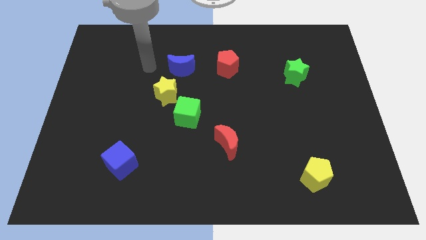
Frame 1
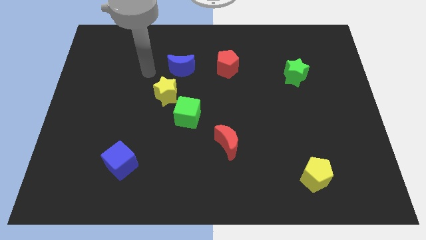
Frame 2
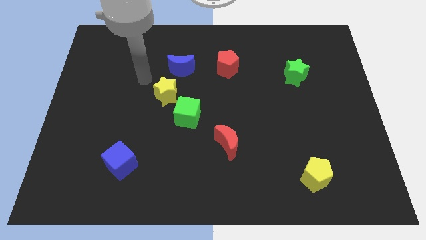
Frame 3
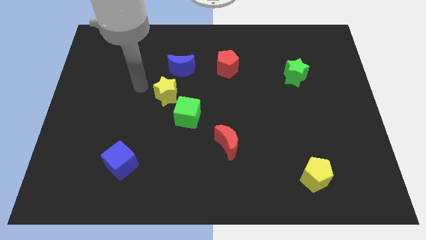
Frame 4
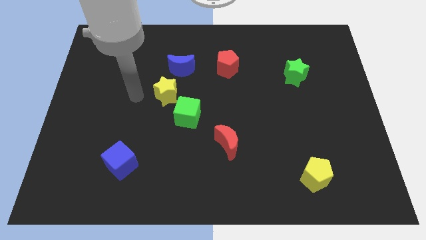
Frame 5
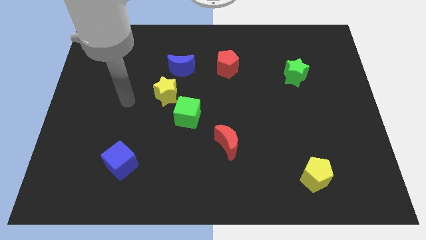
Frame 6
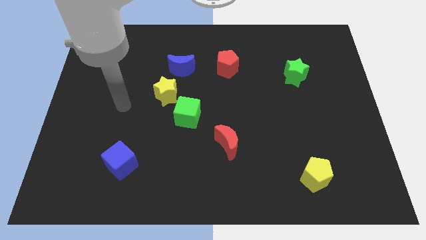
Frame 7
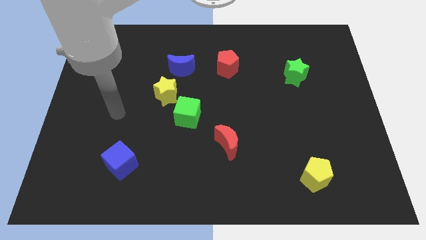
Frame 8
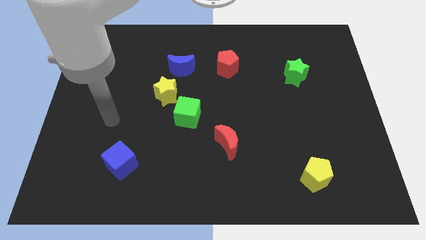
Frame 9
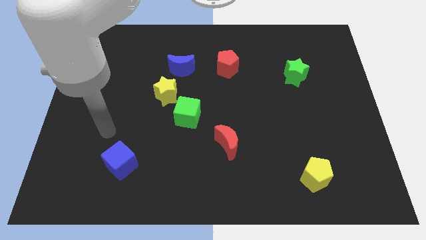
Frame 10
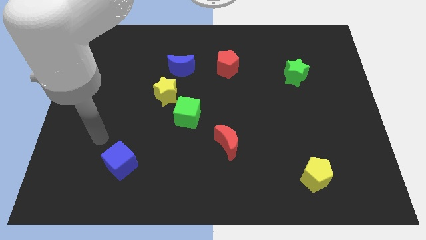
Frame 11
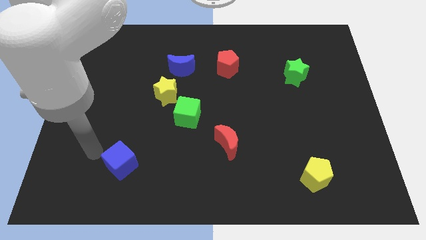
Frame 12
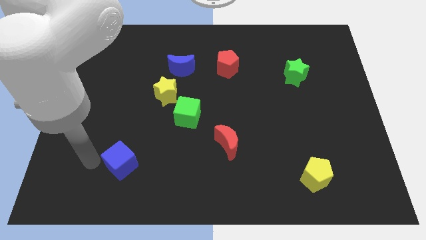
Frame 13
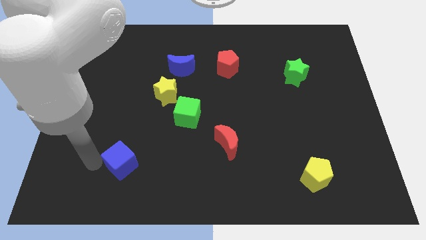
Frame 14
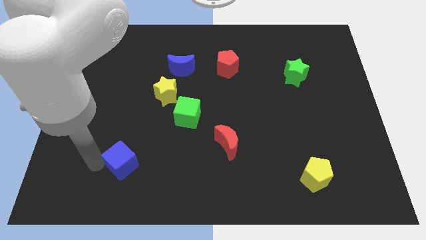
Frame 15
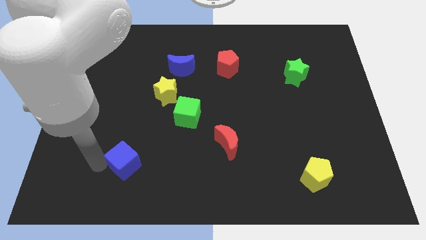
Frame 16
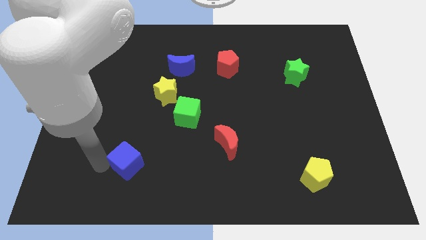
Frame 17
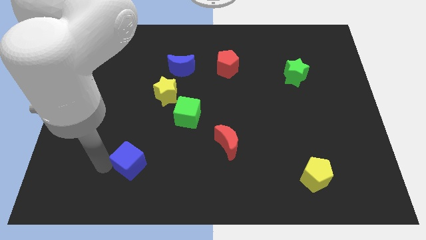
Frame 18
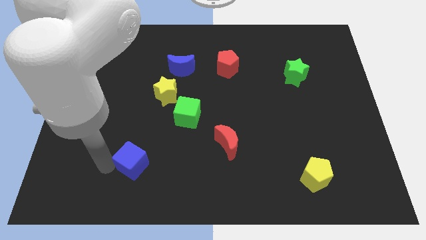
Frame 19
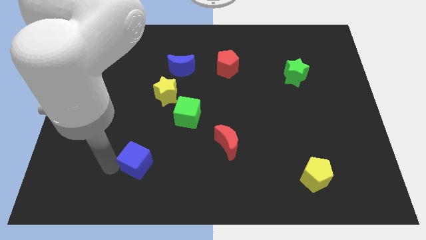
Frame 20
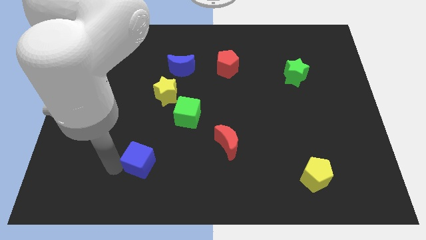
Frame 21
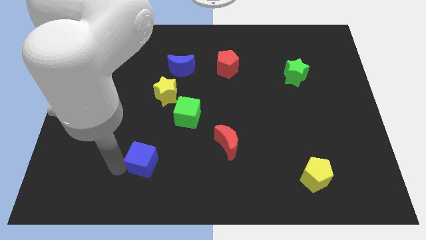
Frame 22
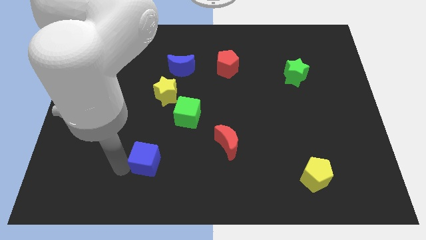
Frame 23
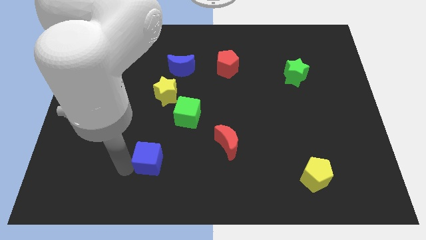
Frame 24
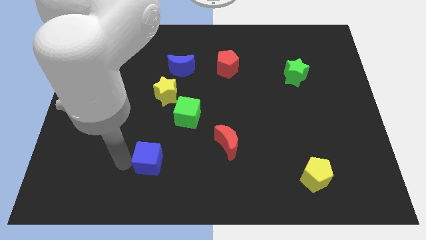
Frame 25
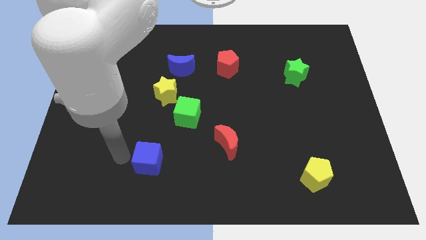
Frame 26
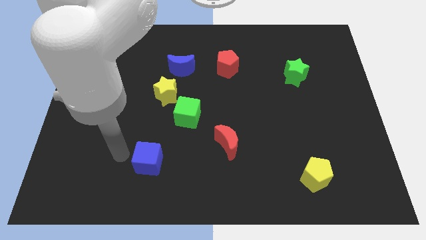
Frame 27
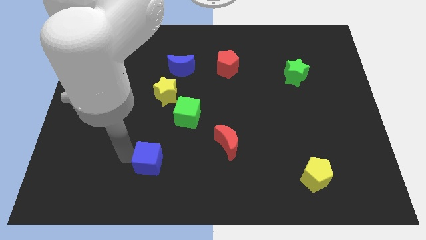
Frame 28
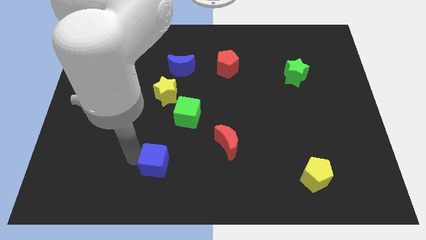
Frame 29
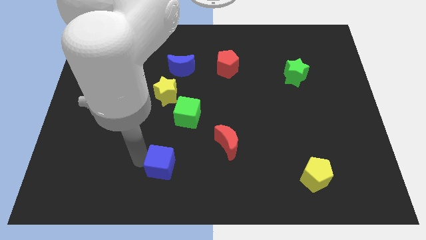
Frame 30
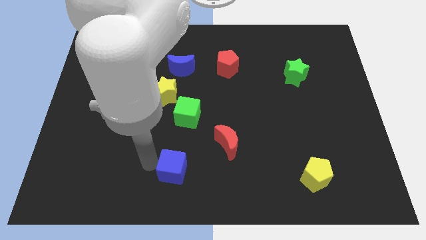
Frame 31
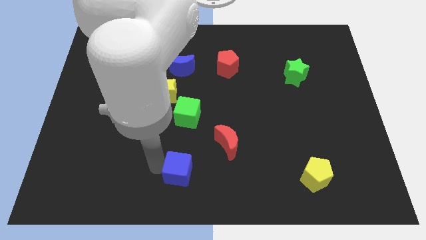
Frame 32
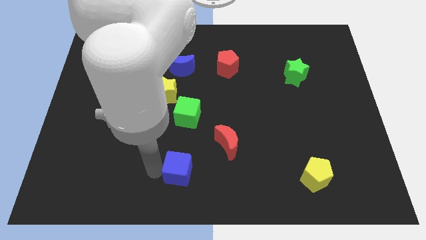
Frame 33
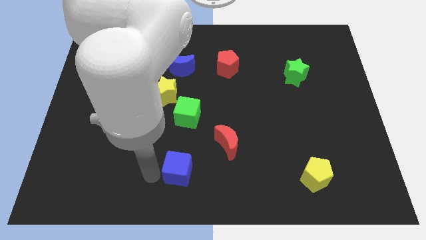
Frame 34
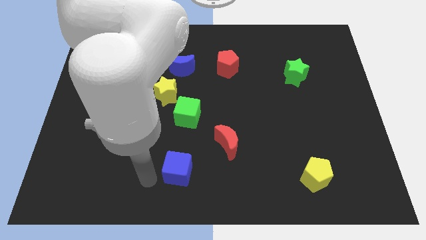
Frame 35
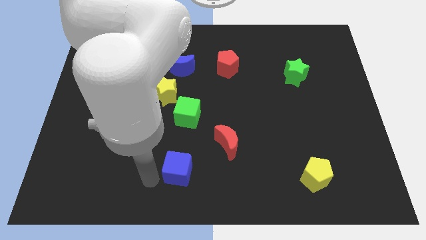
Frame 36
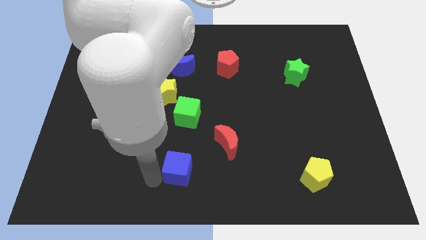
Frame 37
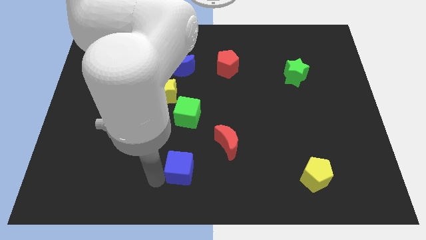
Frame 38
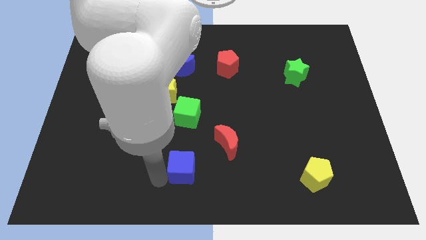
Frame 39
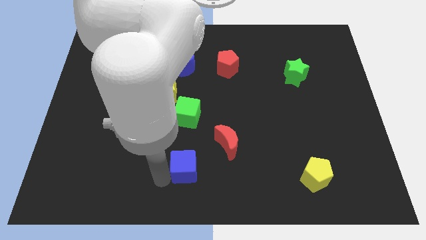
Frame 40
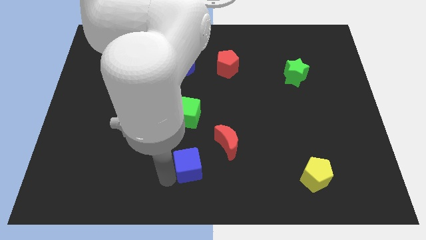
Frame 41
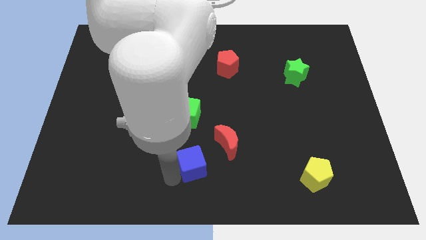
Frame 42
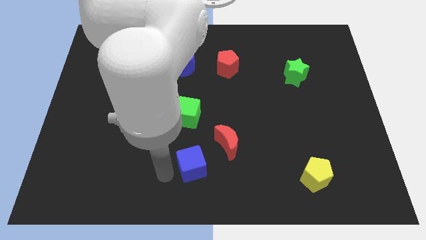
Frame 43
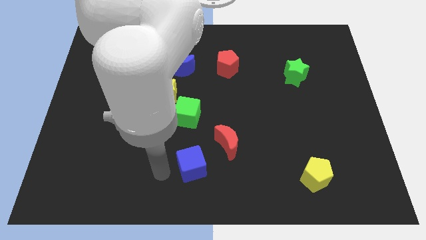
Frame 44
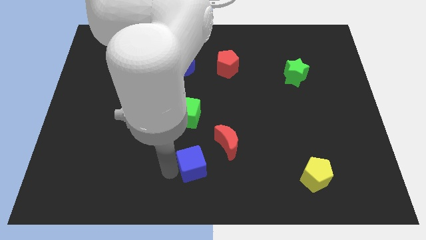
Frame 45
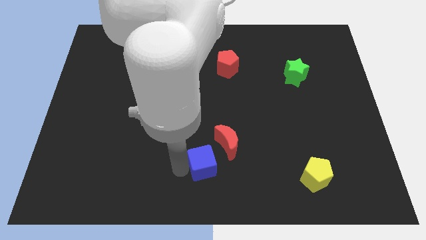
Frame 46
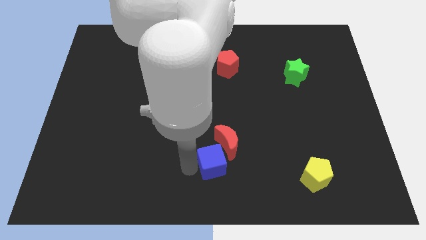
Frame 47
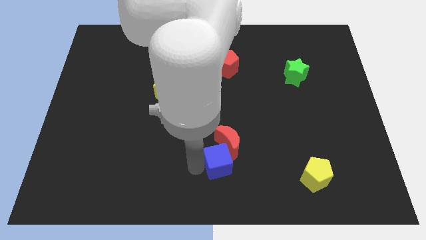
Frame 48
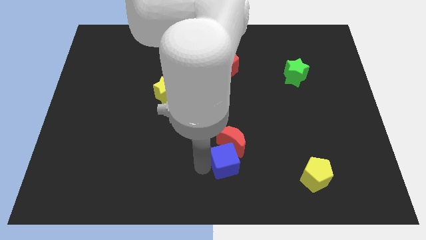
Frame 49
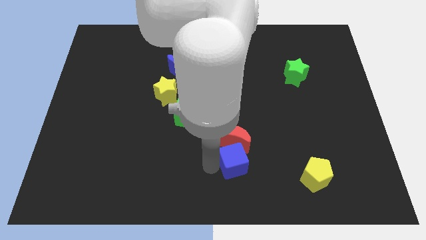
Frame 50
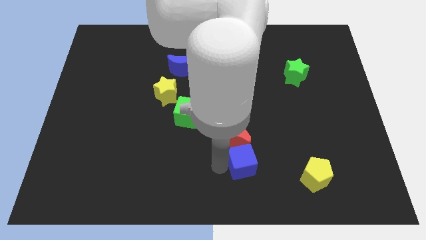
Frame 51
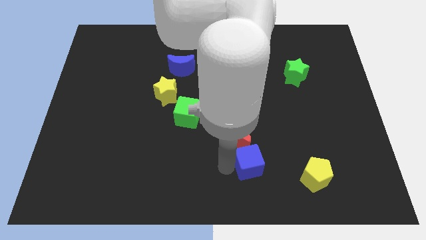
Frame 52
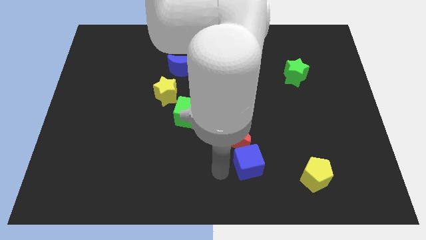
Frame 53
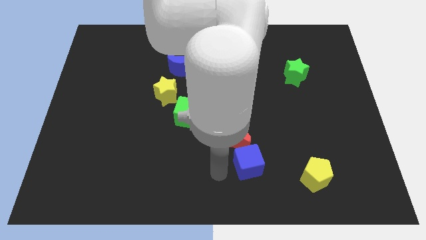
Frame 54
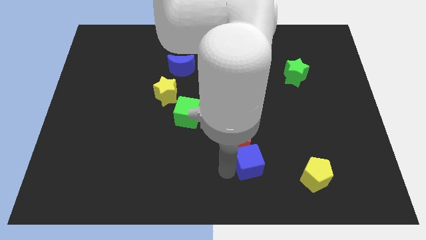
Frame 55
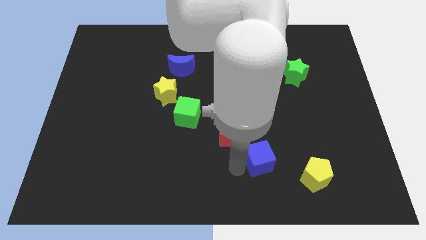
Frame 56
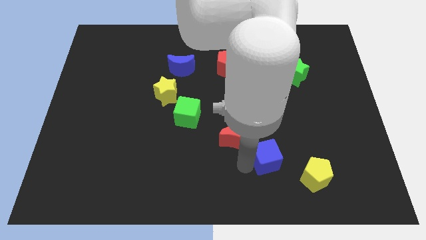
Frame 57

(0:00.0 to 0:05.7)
put the blue cube to the top left of the yellow pentagon

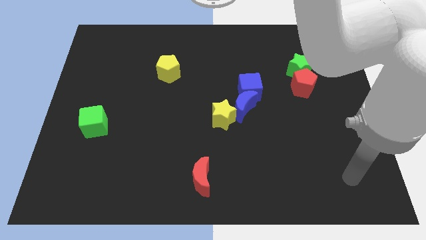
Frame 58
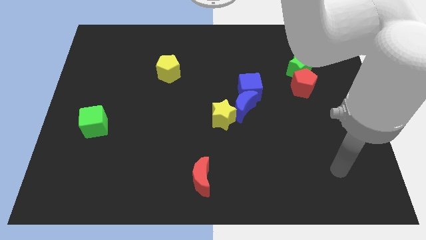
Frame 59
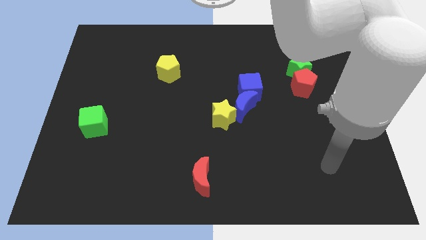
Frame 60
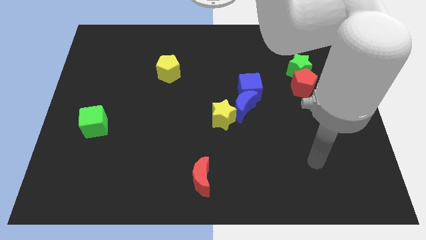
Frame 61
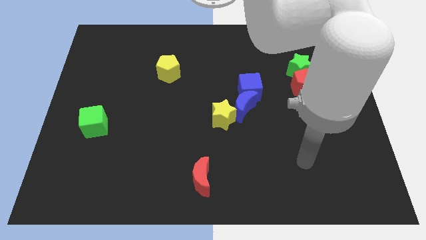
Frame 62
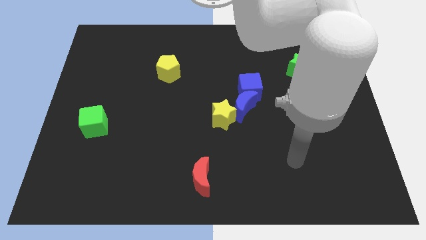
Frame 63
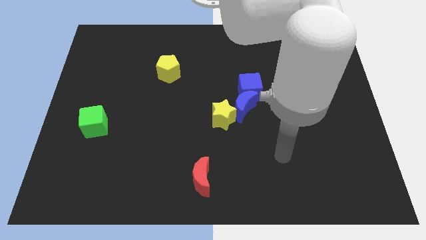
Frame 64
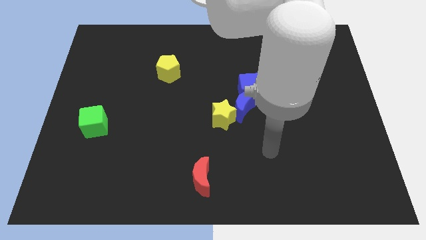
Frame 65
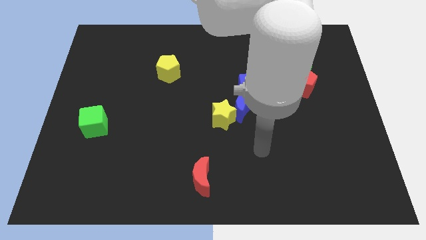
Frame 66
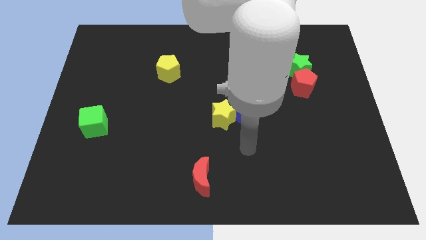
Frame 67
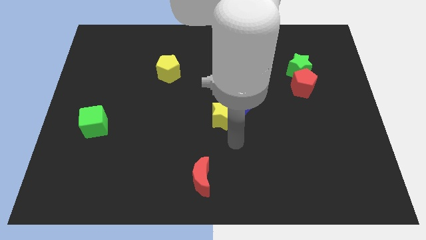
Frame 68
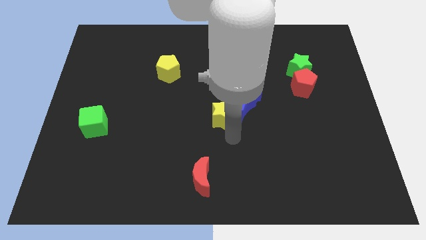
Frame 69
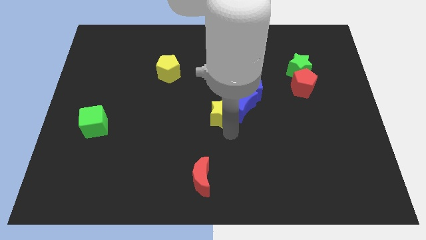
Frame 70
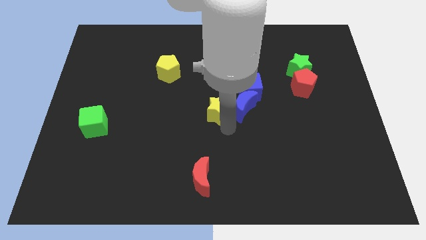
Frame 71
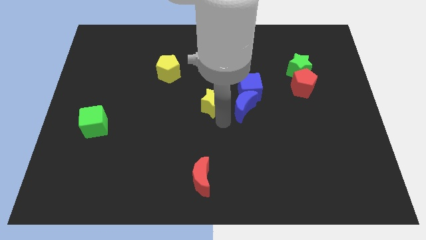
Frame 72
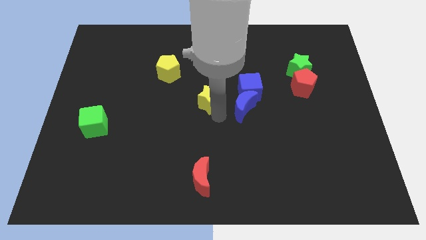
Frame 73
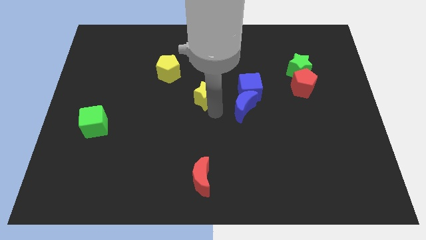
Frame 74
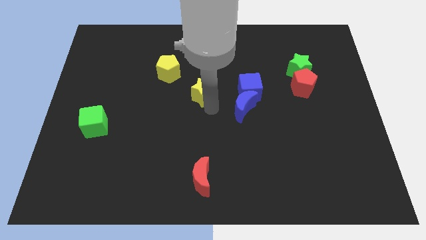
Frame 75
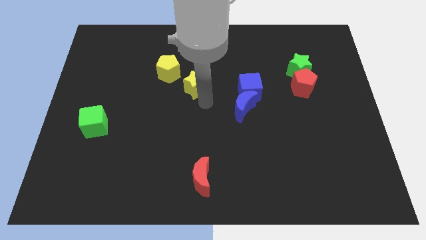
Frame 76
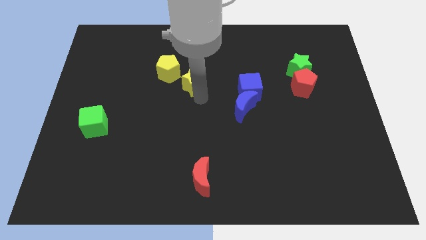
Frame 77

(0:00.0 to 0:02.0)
move the yellow star to the right of the yellow pentagon
